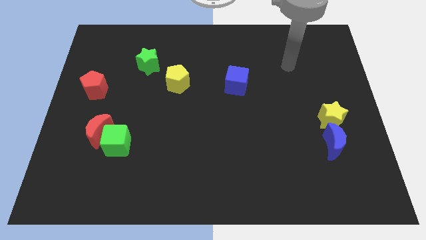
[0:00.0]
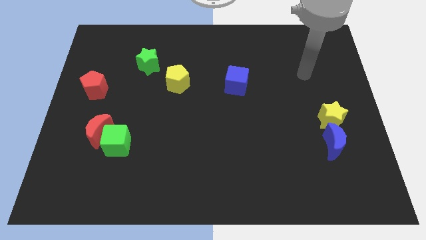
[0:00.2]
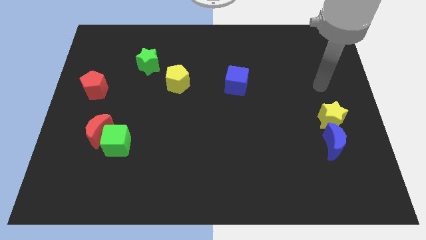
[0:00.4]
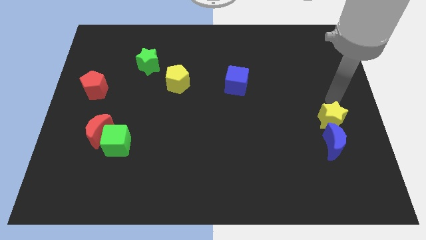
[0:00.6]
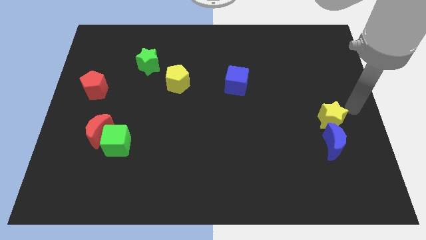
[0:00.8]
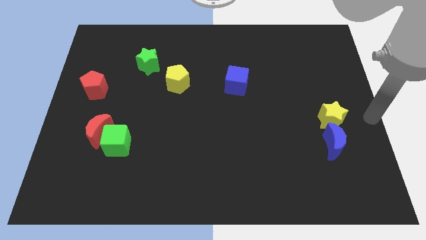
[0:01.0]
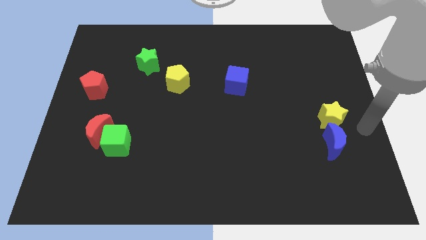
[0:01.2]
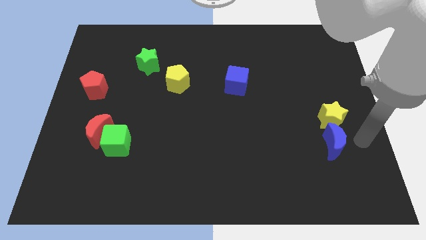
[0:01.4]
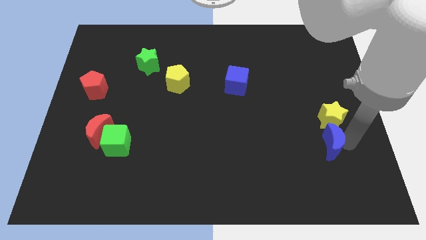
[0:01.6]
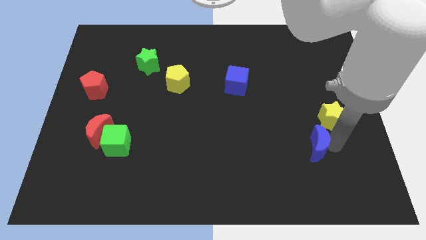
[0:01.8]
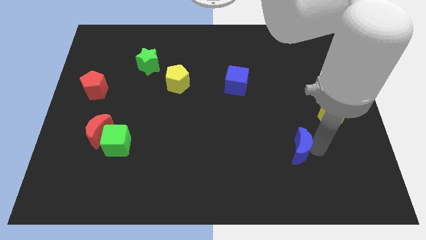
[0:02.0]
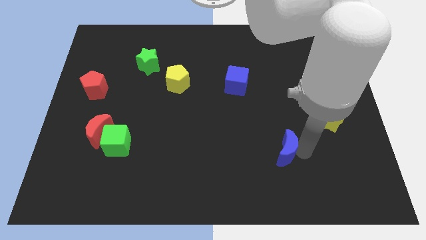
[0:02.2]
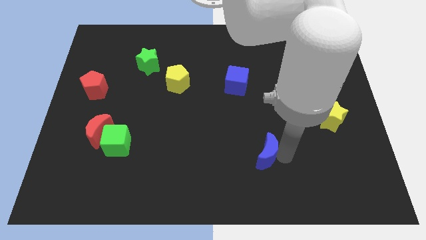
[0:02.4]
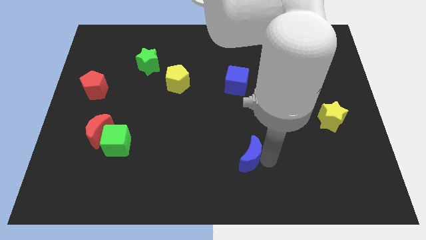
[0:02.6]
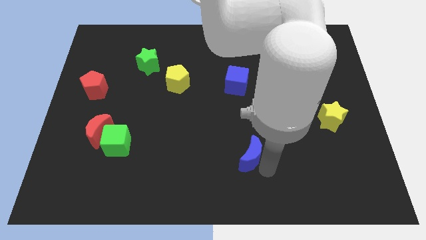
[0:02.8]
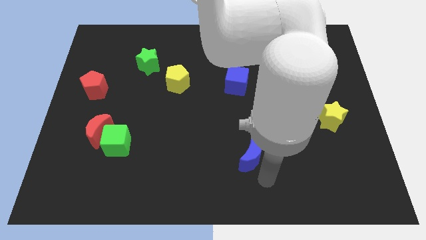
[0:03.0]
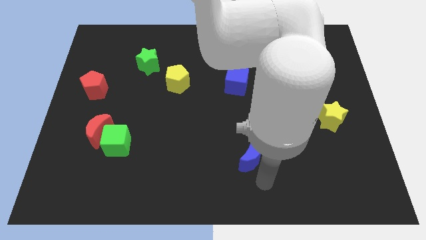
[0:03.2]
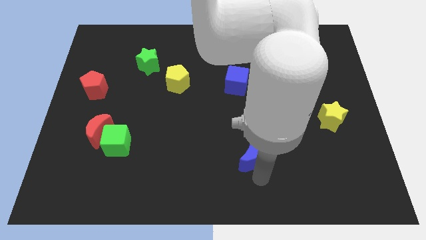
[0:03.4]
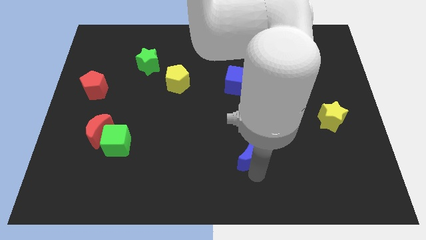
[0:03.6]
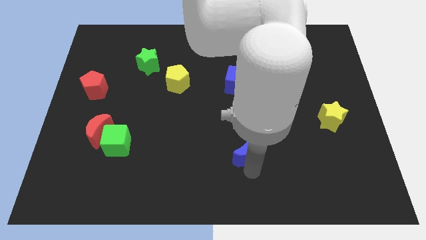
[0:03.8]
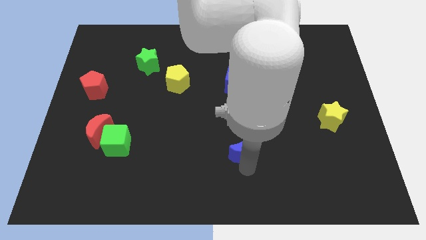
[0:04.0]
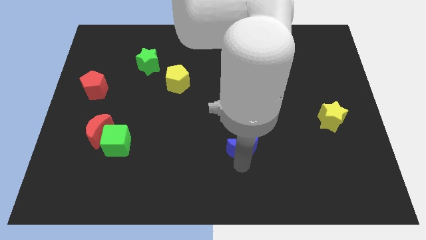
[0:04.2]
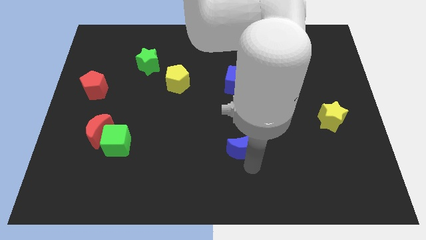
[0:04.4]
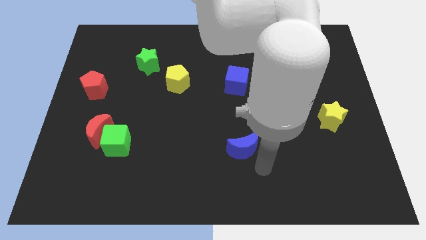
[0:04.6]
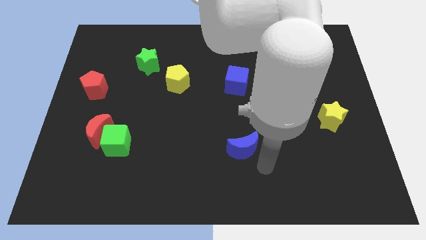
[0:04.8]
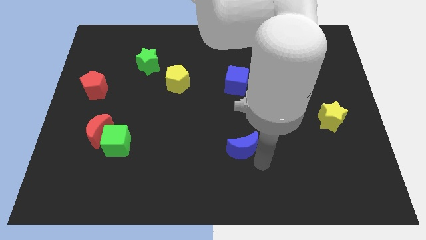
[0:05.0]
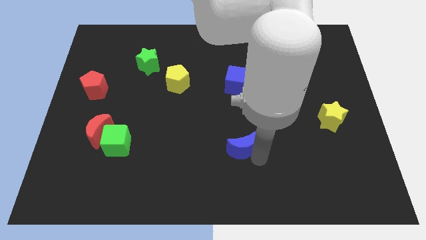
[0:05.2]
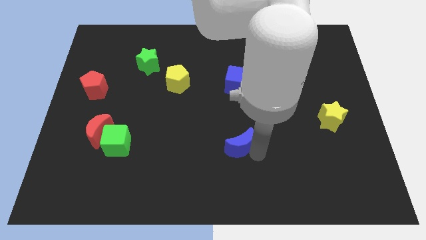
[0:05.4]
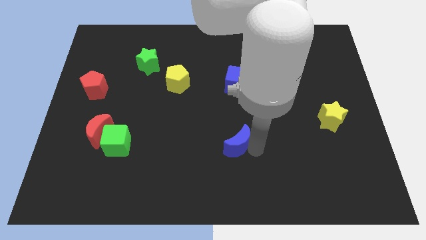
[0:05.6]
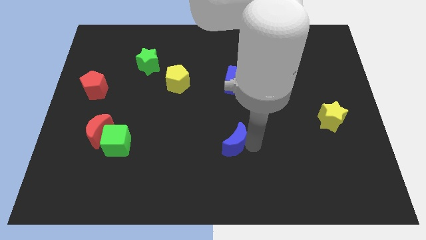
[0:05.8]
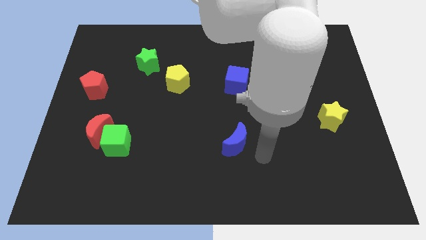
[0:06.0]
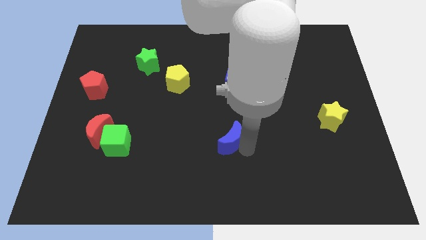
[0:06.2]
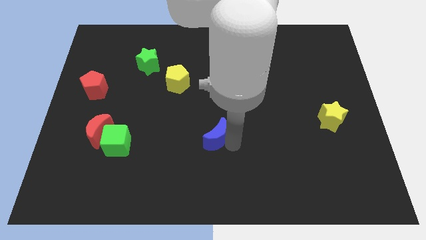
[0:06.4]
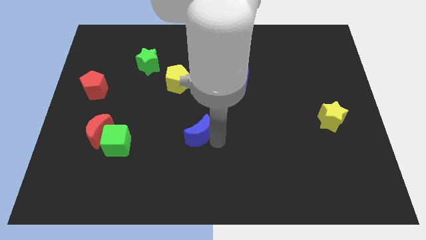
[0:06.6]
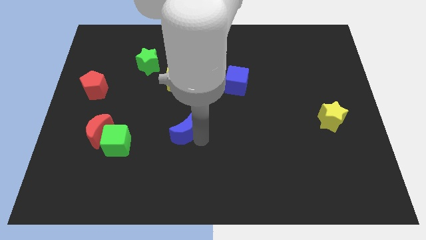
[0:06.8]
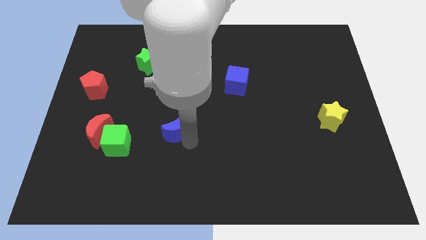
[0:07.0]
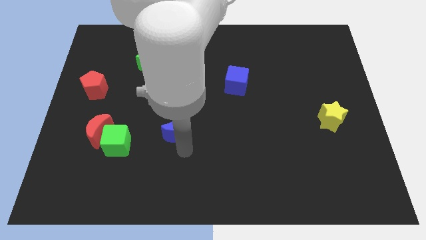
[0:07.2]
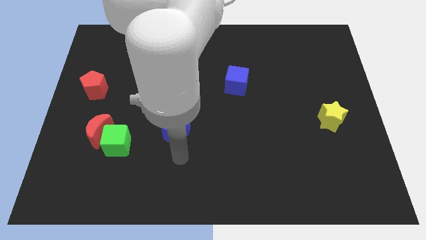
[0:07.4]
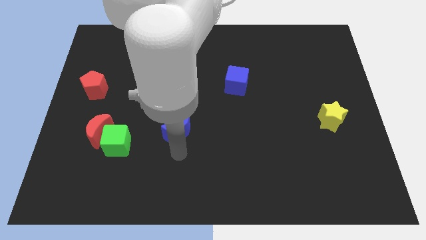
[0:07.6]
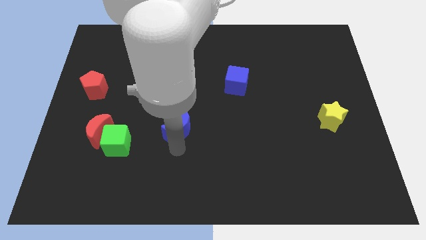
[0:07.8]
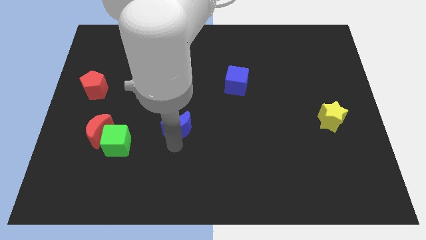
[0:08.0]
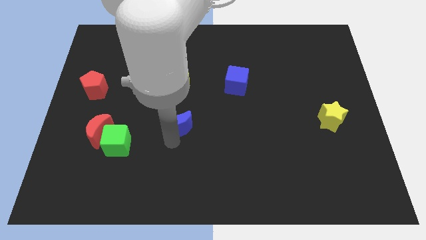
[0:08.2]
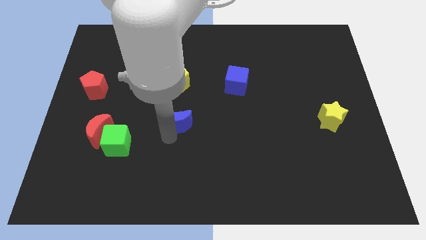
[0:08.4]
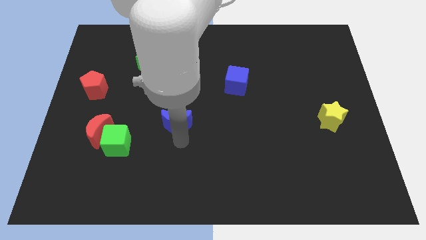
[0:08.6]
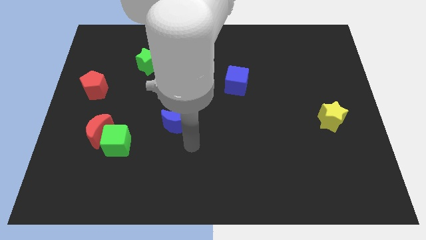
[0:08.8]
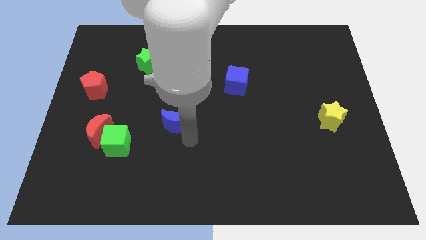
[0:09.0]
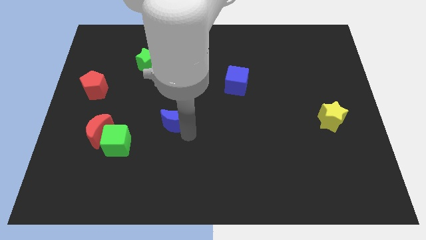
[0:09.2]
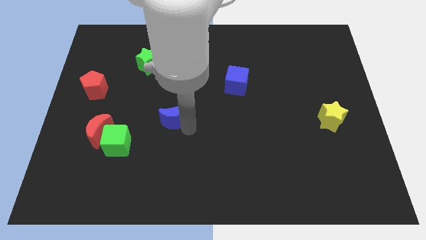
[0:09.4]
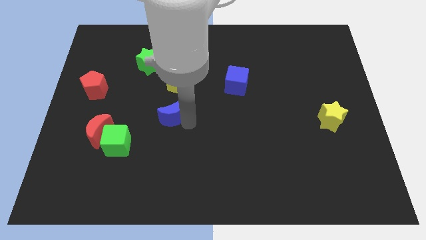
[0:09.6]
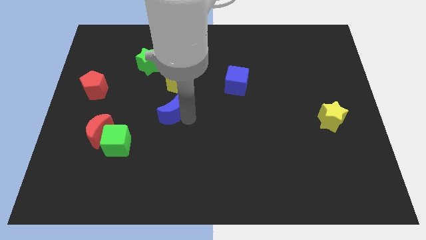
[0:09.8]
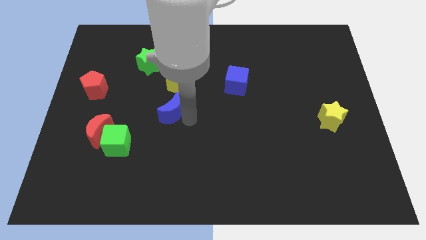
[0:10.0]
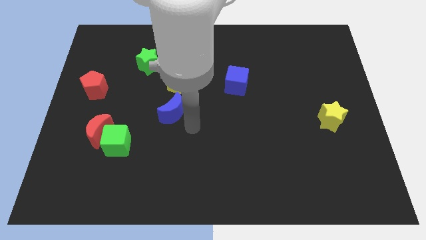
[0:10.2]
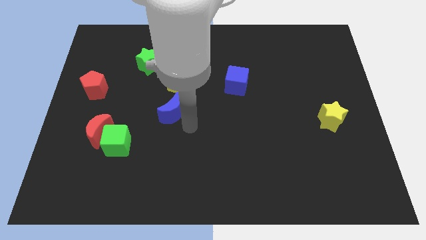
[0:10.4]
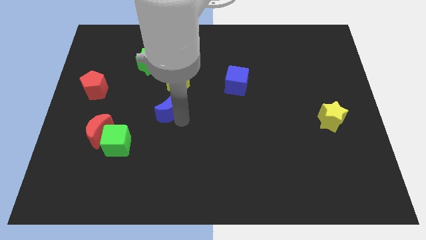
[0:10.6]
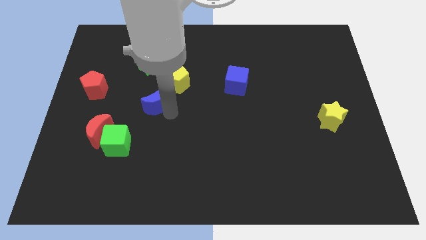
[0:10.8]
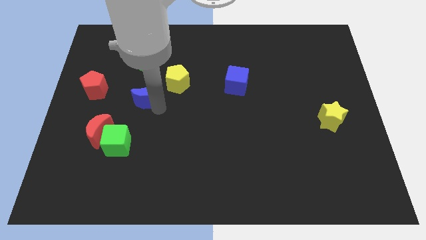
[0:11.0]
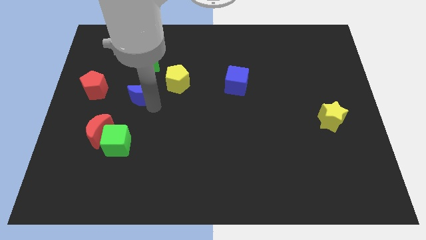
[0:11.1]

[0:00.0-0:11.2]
slide the blue moon to the left of the yellow pentagon

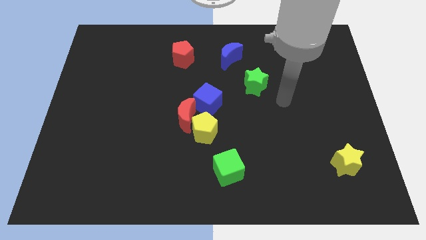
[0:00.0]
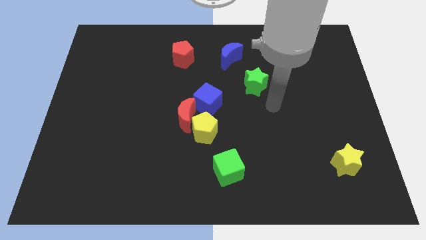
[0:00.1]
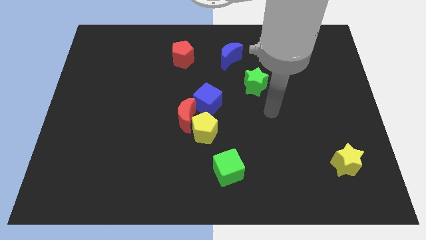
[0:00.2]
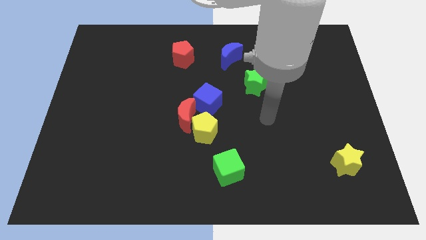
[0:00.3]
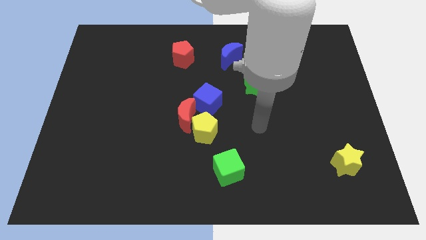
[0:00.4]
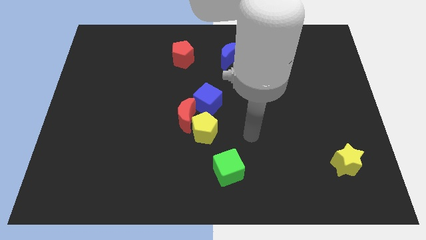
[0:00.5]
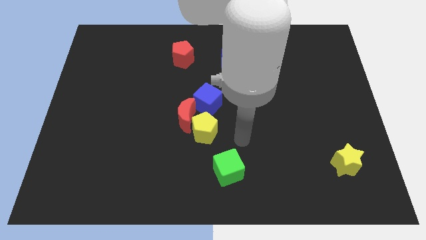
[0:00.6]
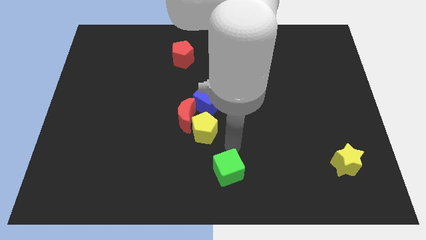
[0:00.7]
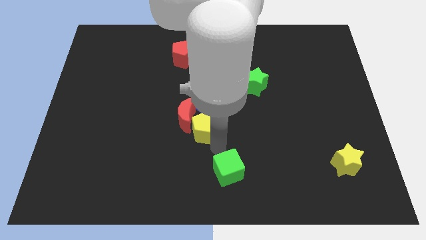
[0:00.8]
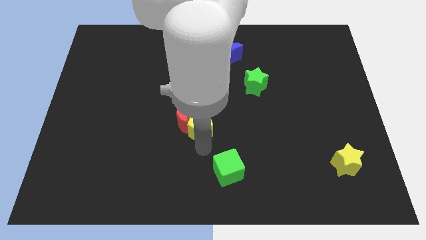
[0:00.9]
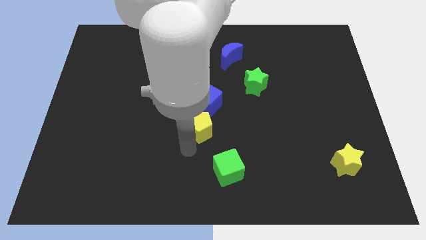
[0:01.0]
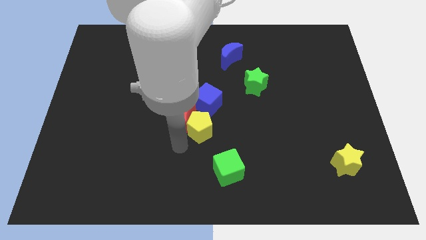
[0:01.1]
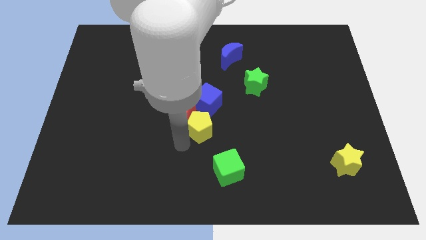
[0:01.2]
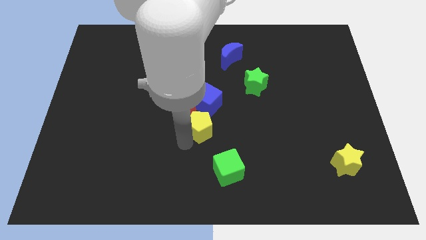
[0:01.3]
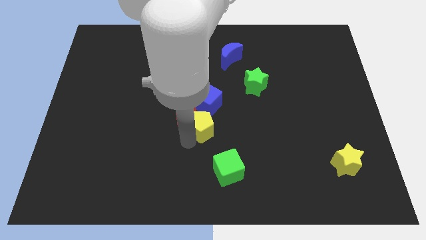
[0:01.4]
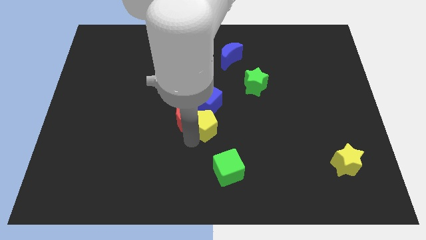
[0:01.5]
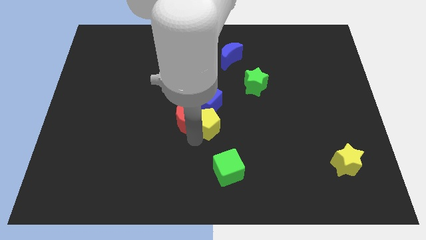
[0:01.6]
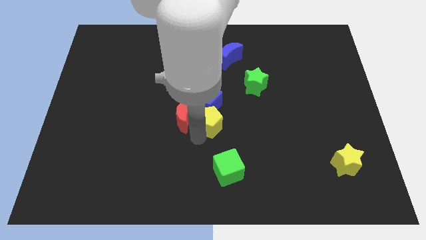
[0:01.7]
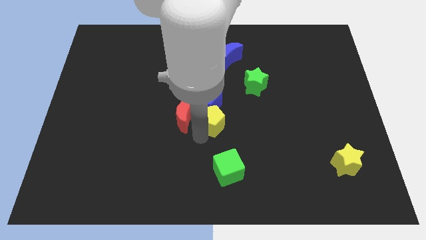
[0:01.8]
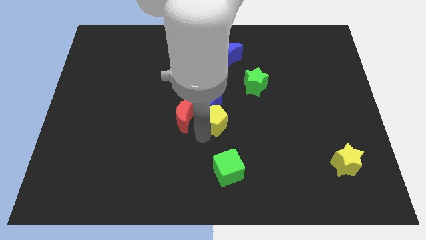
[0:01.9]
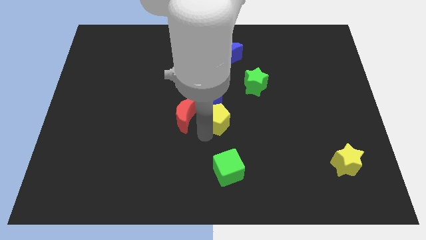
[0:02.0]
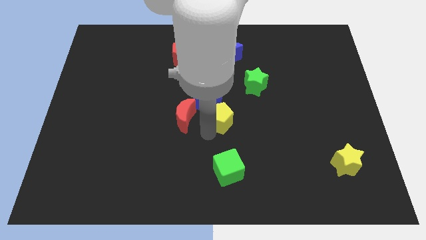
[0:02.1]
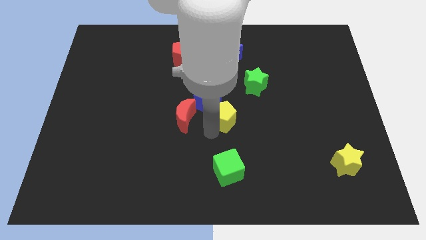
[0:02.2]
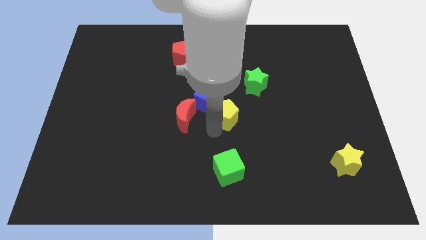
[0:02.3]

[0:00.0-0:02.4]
put the yellow pentagon to the bottom left of the green star

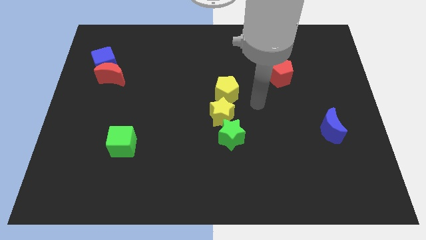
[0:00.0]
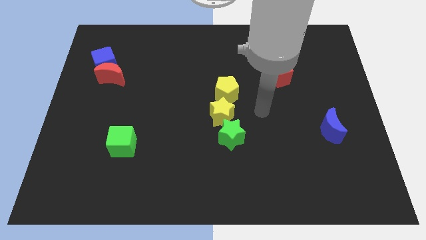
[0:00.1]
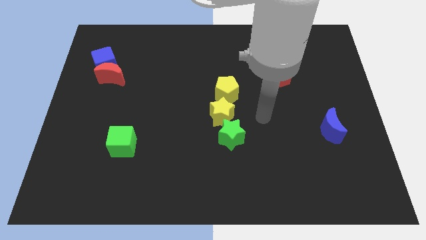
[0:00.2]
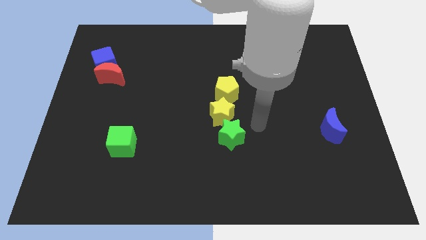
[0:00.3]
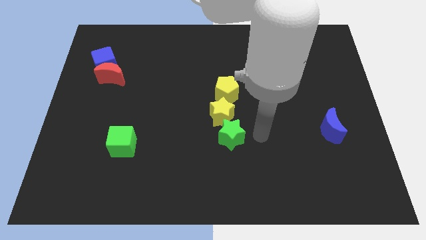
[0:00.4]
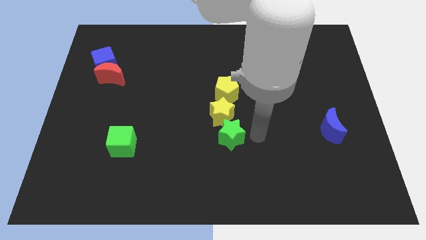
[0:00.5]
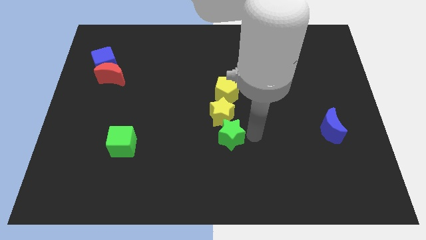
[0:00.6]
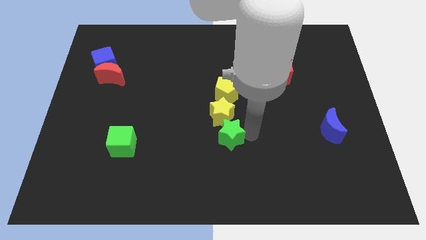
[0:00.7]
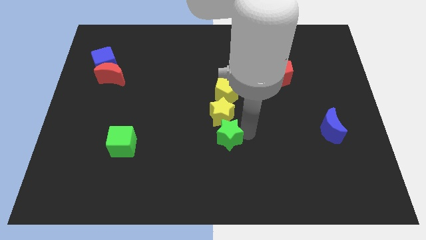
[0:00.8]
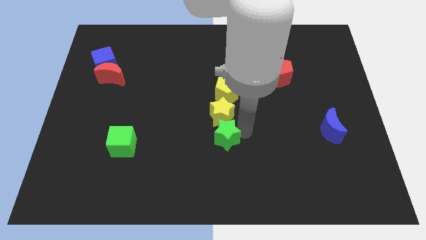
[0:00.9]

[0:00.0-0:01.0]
move the green star to the bottom left of the yellow star
